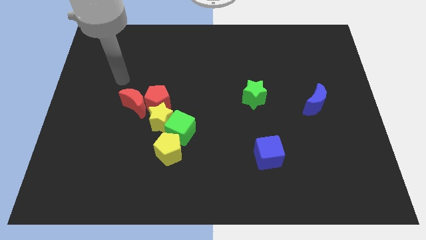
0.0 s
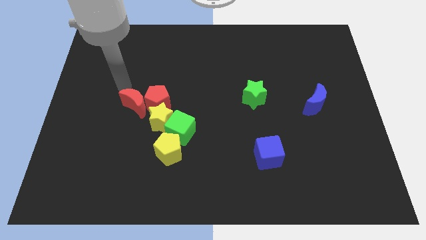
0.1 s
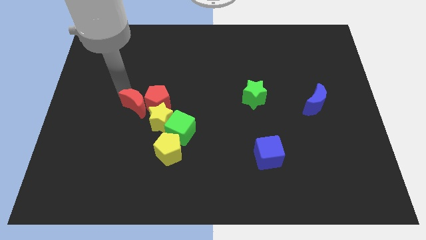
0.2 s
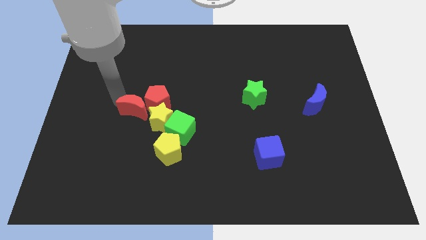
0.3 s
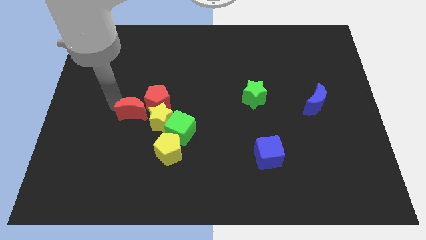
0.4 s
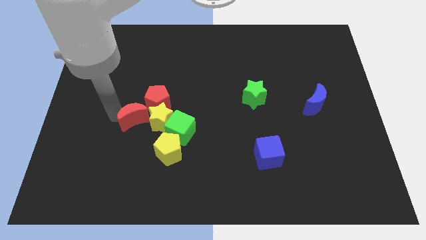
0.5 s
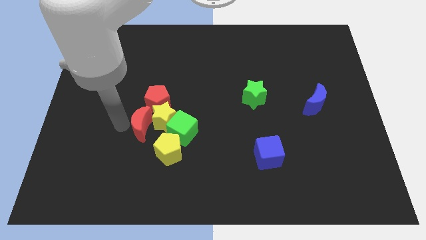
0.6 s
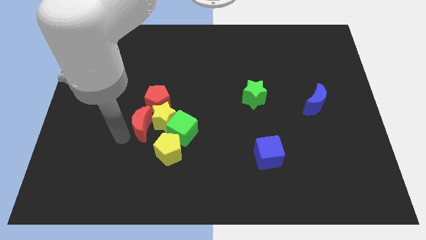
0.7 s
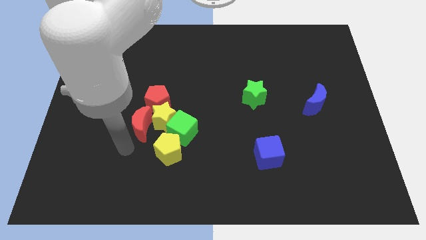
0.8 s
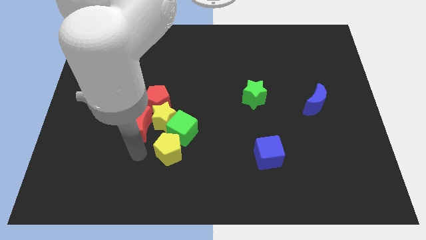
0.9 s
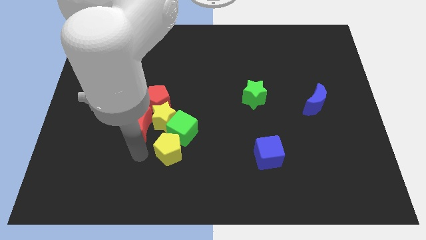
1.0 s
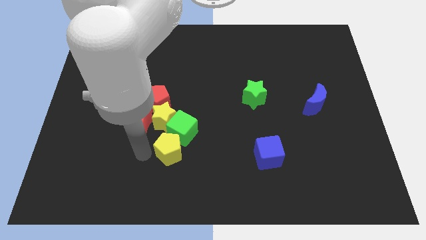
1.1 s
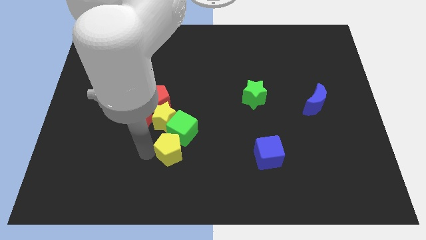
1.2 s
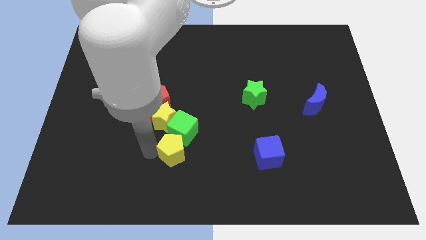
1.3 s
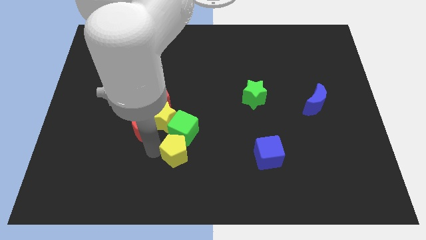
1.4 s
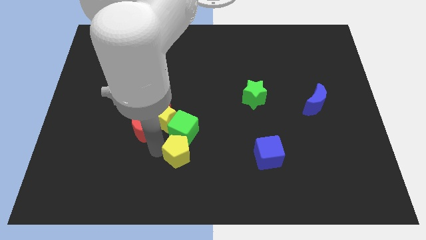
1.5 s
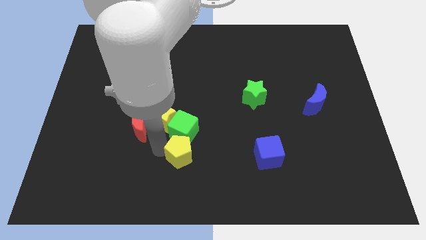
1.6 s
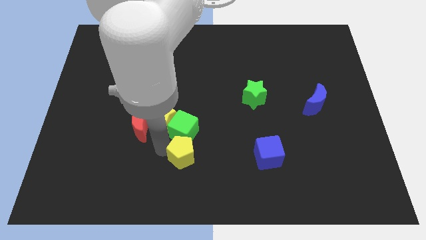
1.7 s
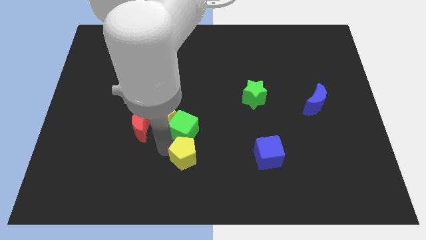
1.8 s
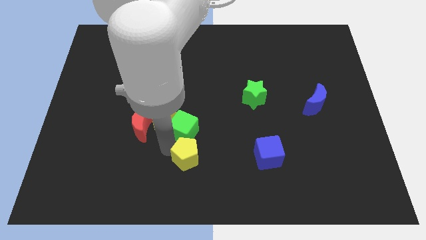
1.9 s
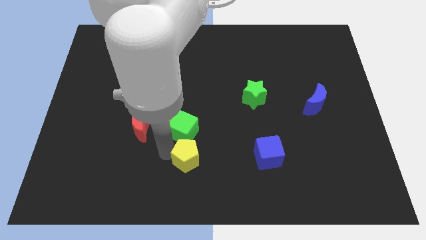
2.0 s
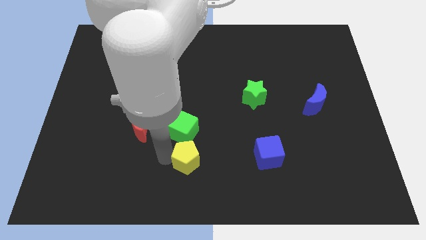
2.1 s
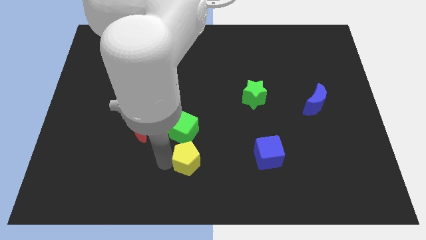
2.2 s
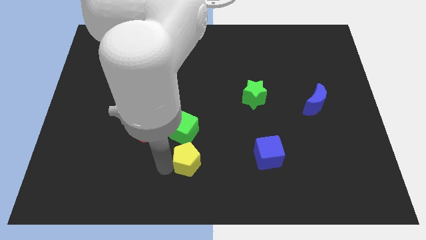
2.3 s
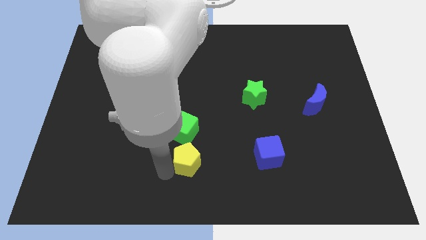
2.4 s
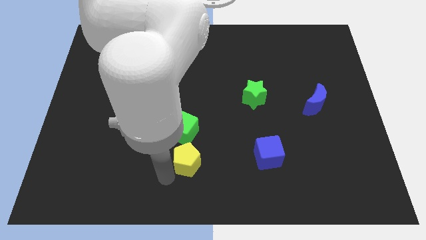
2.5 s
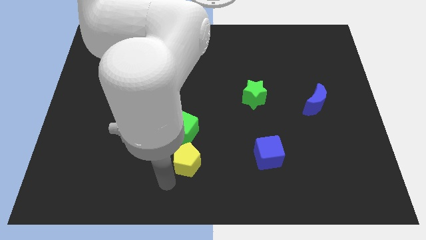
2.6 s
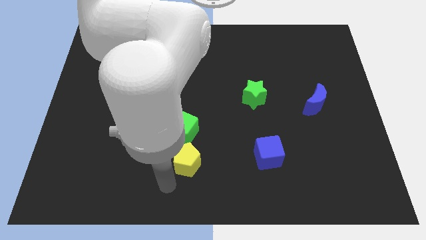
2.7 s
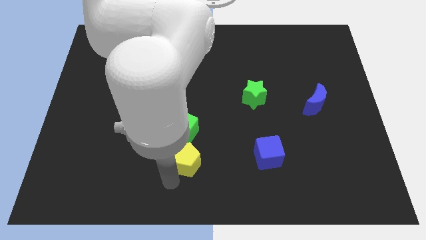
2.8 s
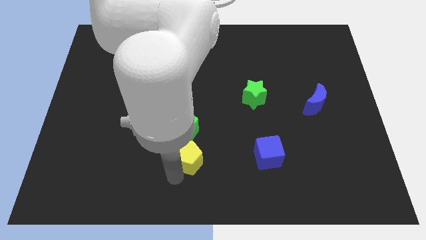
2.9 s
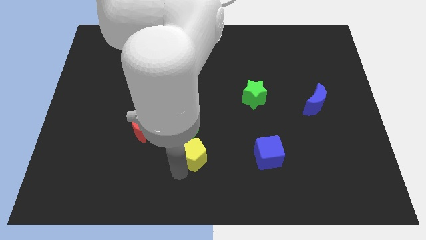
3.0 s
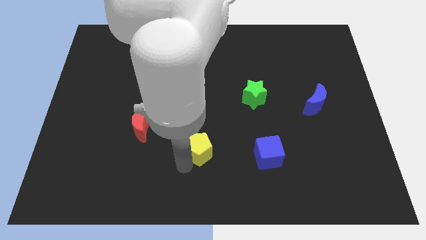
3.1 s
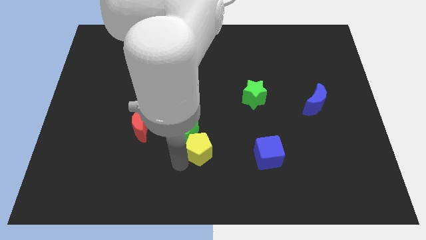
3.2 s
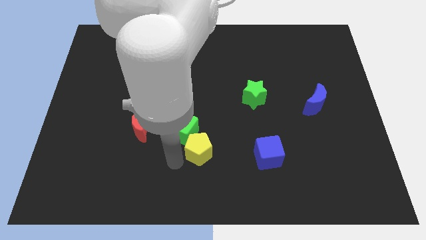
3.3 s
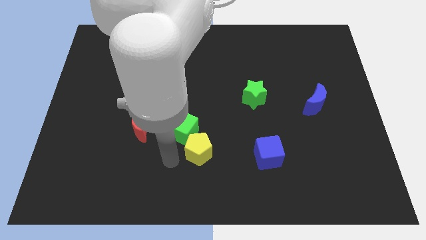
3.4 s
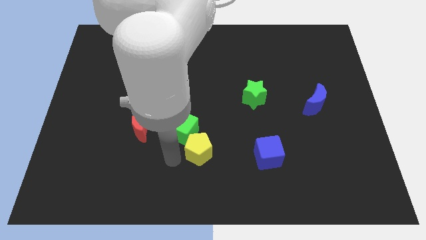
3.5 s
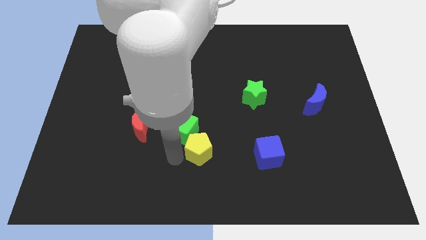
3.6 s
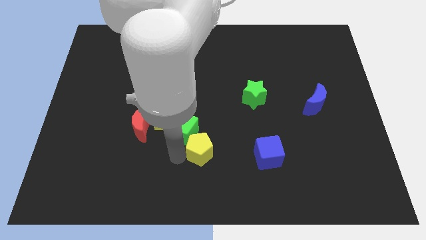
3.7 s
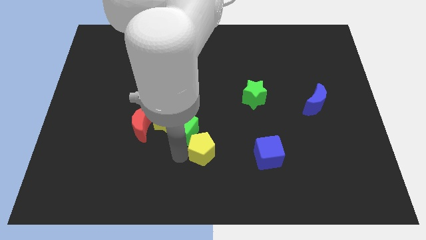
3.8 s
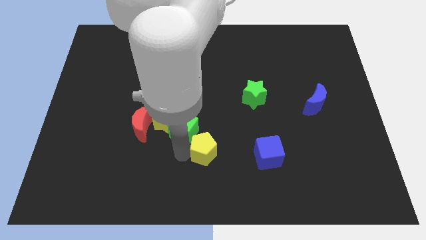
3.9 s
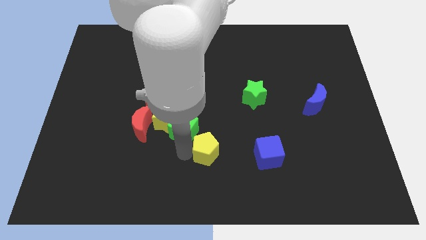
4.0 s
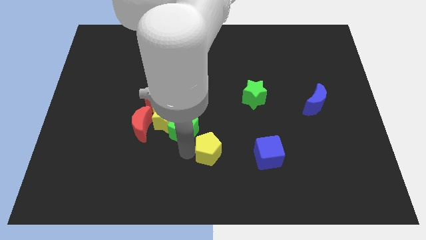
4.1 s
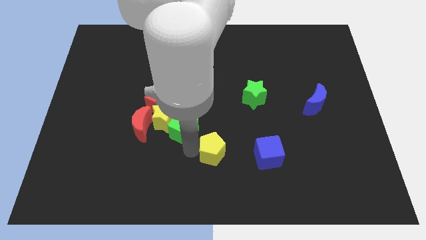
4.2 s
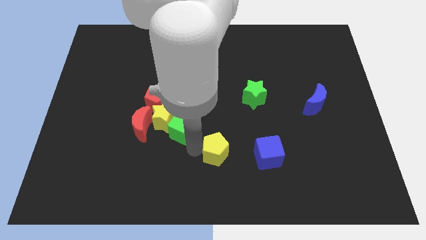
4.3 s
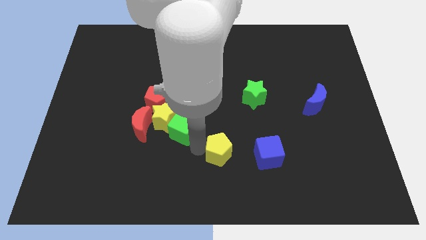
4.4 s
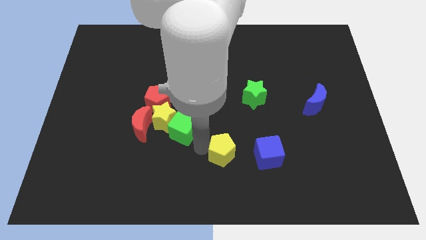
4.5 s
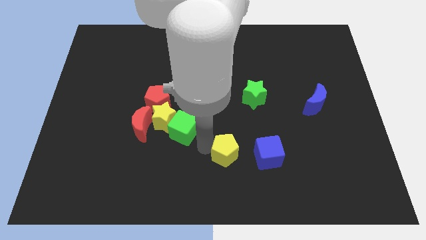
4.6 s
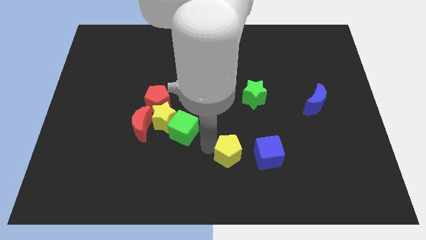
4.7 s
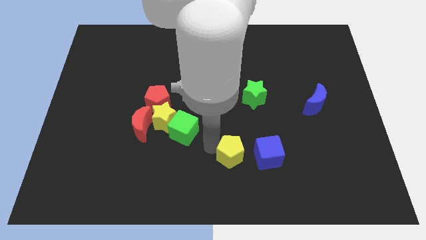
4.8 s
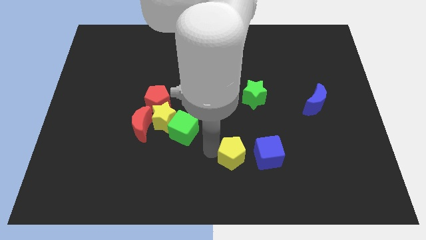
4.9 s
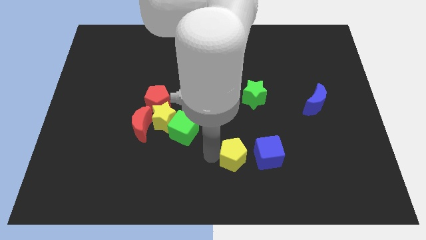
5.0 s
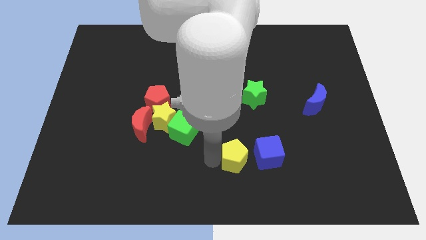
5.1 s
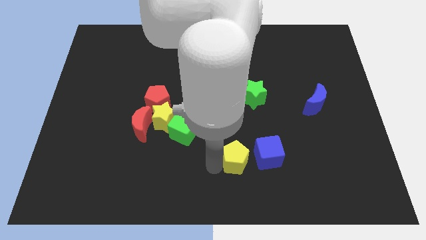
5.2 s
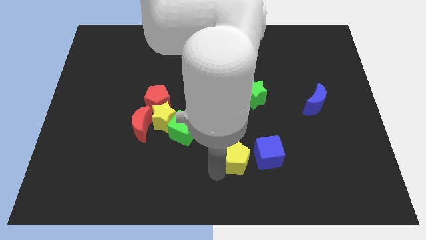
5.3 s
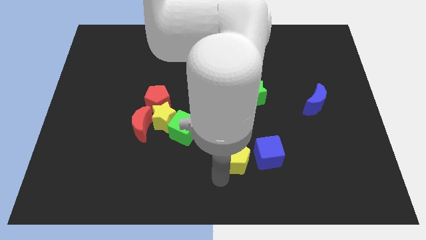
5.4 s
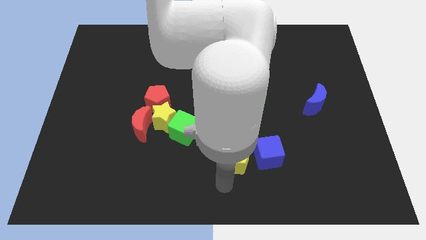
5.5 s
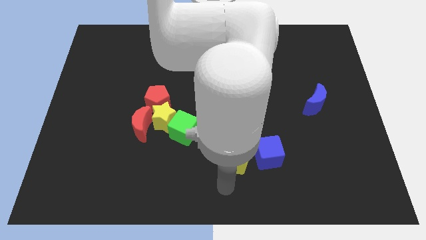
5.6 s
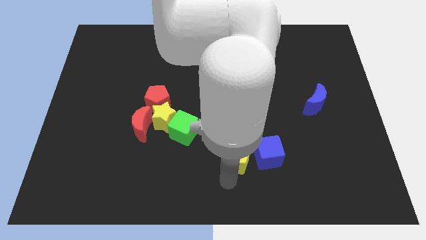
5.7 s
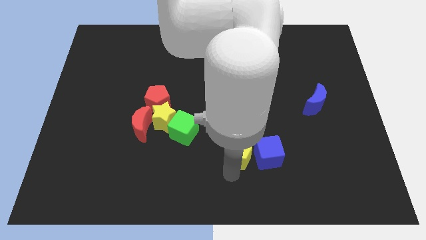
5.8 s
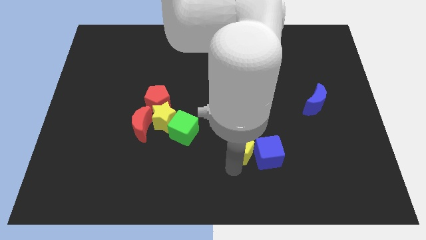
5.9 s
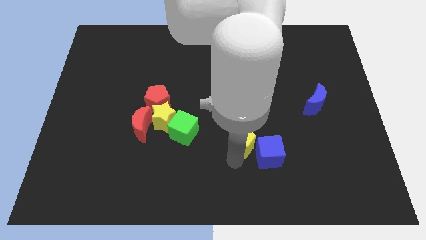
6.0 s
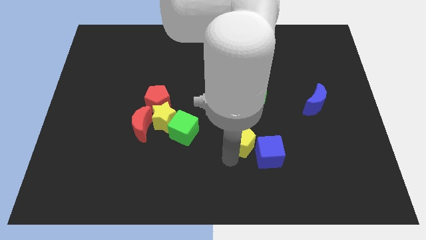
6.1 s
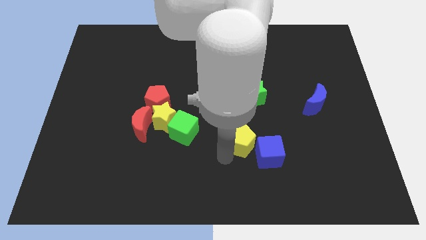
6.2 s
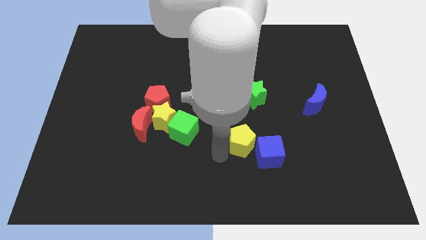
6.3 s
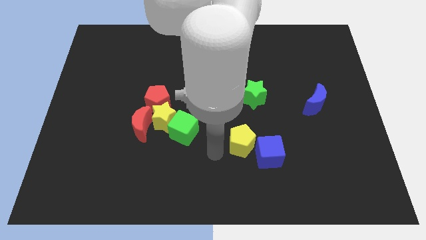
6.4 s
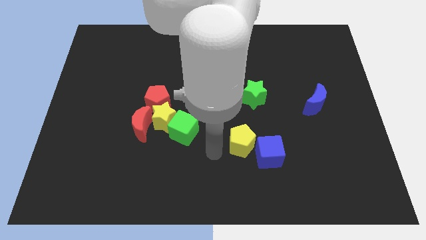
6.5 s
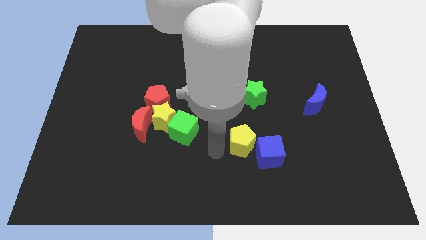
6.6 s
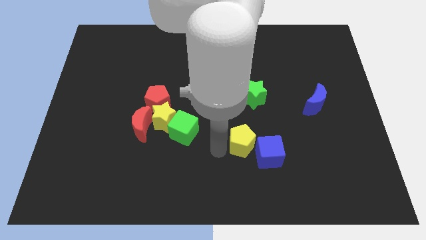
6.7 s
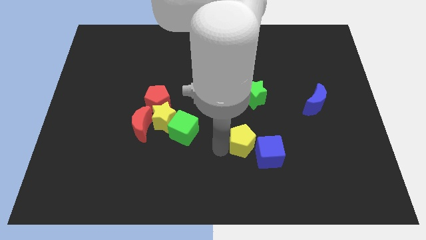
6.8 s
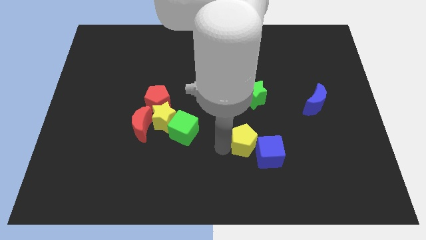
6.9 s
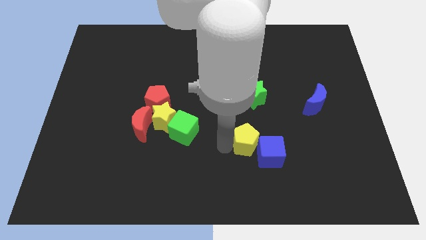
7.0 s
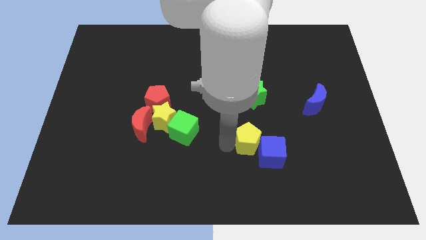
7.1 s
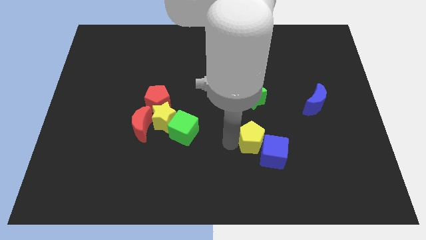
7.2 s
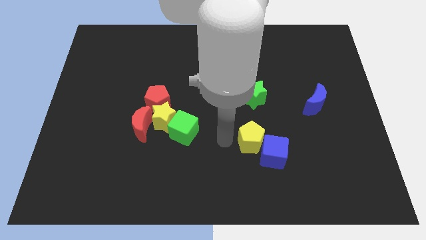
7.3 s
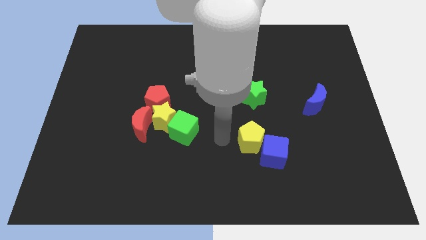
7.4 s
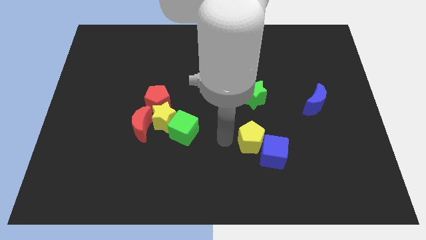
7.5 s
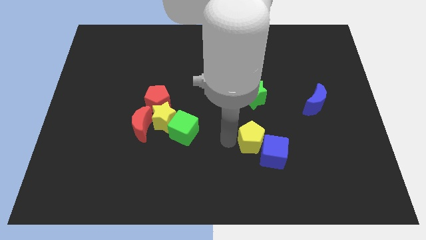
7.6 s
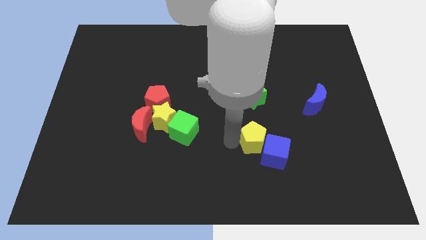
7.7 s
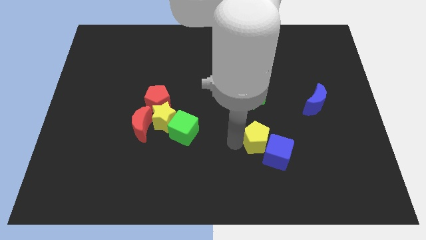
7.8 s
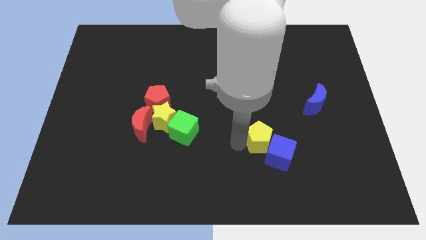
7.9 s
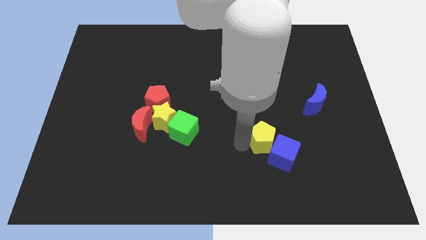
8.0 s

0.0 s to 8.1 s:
slide the yellow pentagon to the right

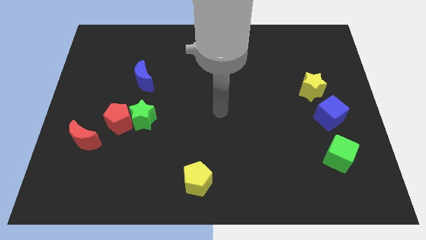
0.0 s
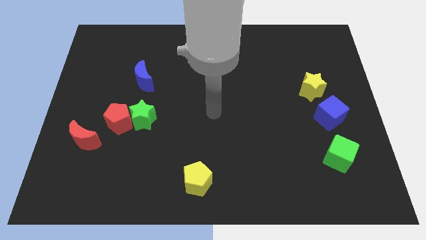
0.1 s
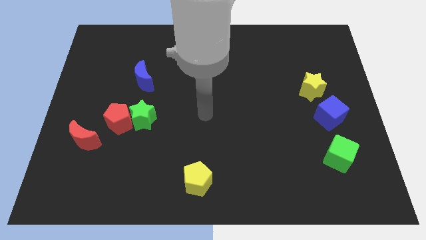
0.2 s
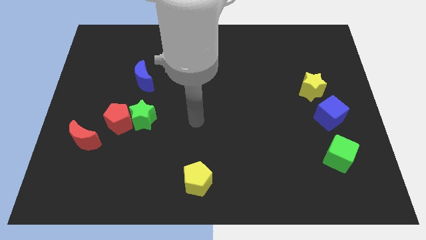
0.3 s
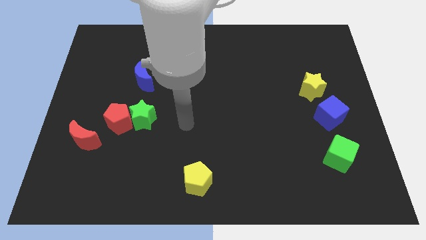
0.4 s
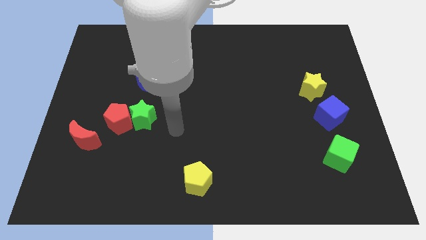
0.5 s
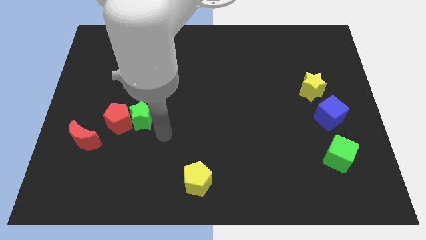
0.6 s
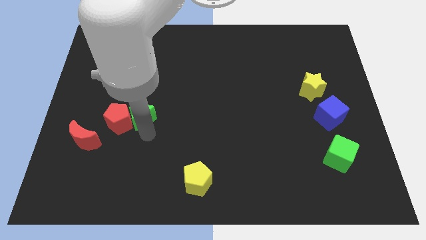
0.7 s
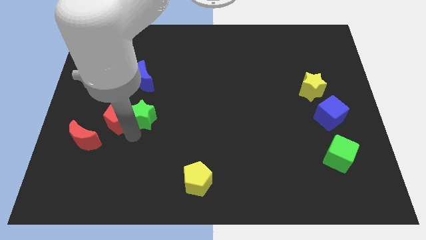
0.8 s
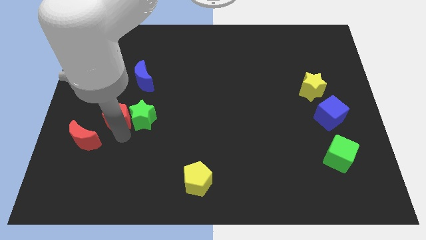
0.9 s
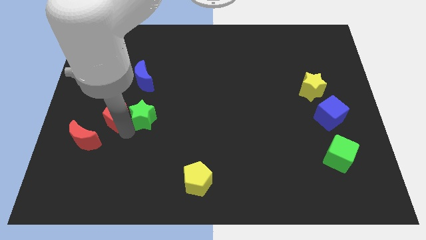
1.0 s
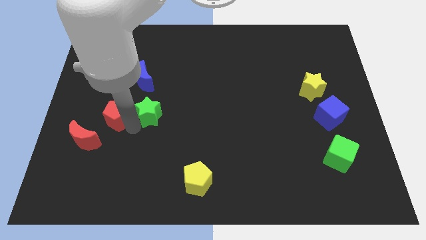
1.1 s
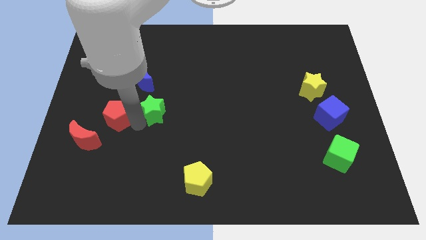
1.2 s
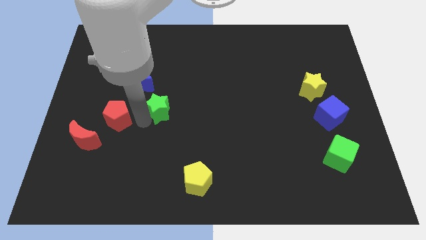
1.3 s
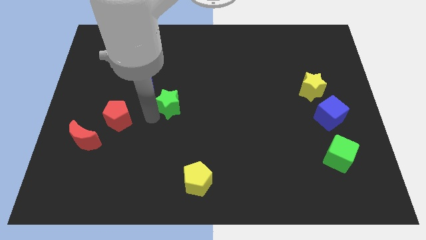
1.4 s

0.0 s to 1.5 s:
slightly slide the green star diagonally upwards and to the right
